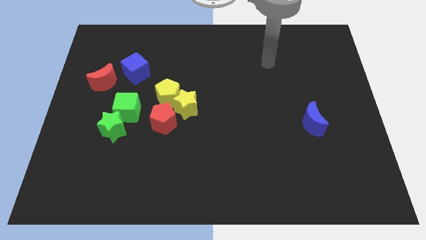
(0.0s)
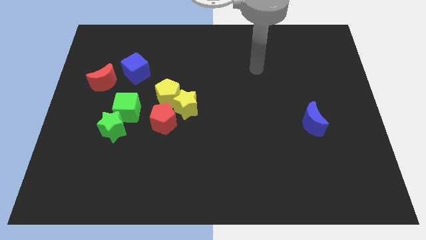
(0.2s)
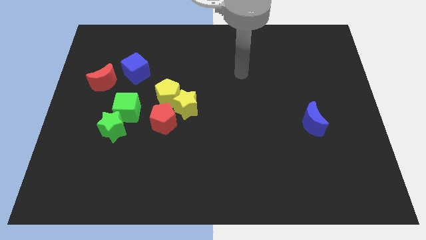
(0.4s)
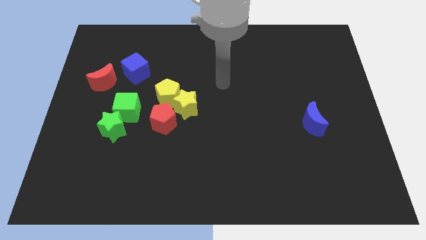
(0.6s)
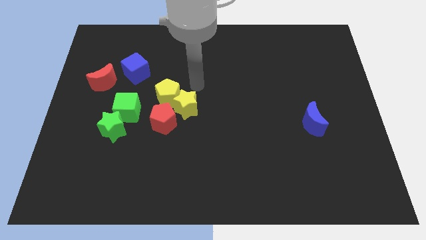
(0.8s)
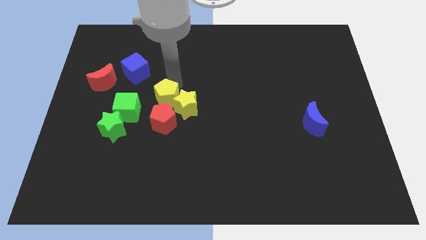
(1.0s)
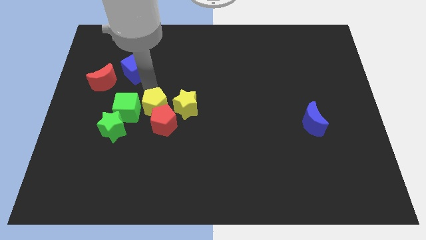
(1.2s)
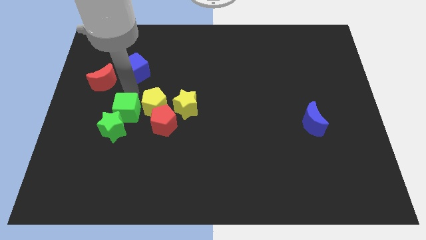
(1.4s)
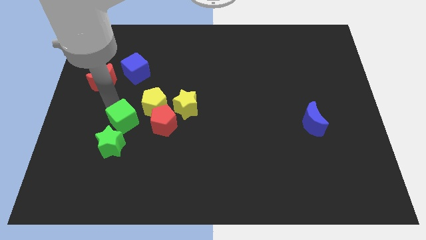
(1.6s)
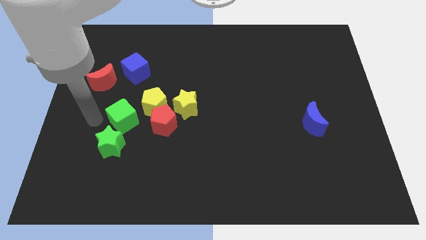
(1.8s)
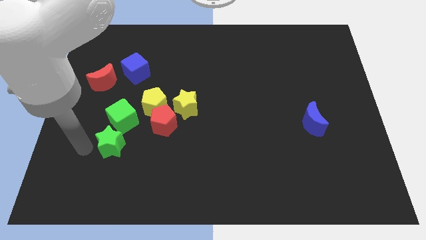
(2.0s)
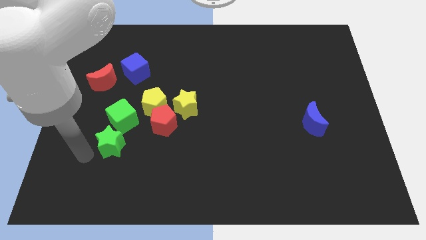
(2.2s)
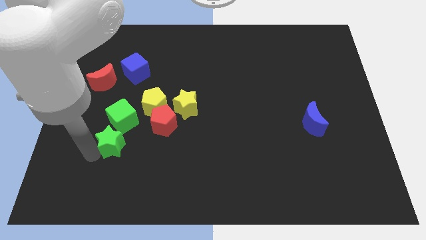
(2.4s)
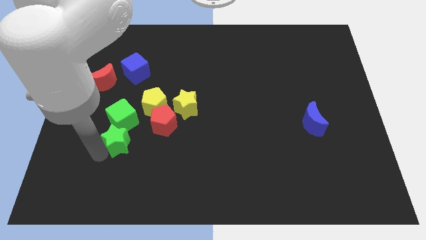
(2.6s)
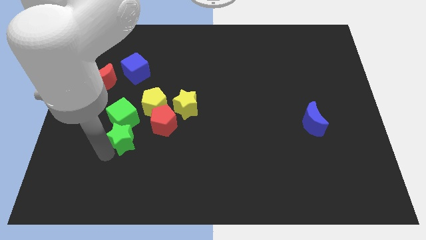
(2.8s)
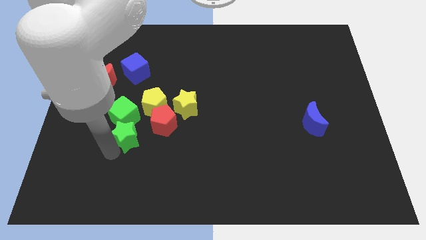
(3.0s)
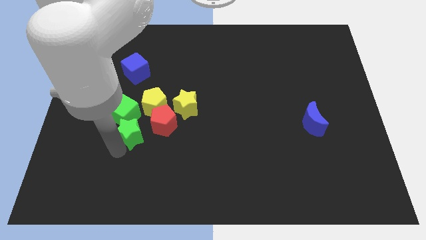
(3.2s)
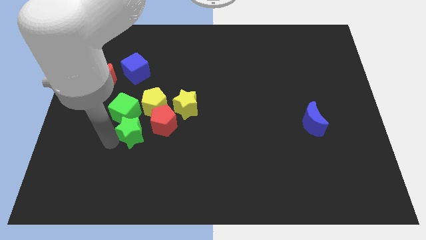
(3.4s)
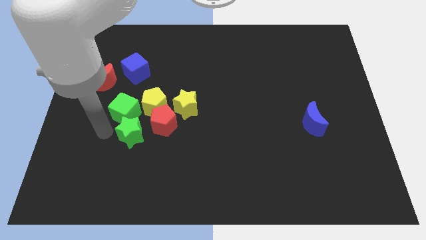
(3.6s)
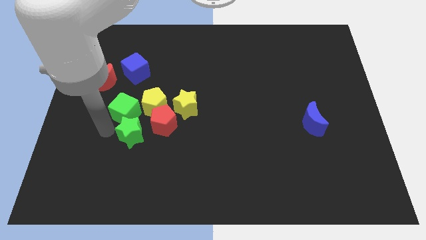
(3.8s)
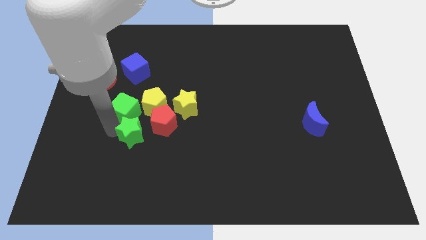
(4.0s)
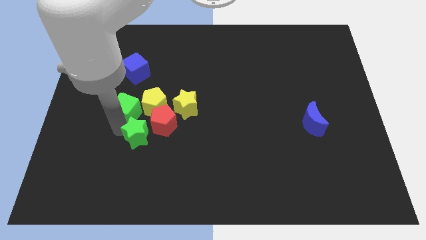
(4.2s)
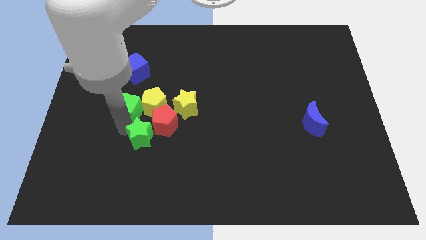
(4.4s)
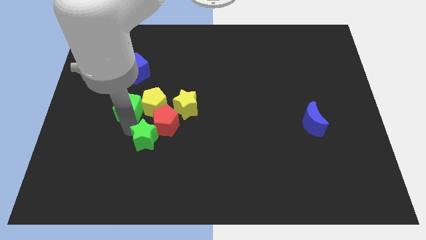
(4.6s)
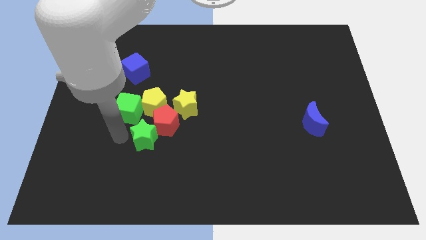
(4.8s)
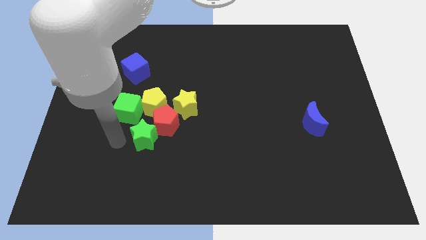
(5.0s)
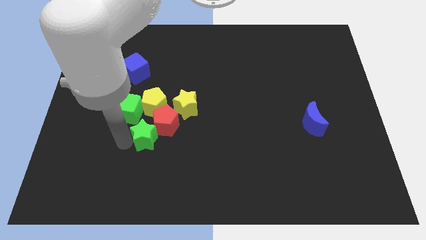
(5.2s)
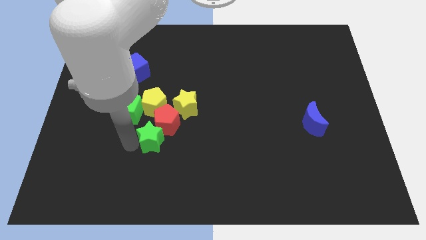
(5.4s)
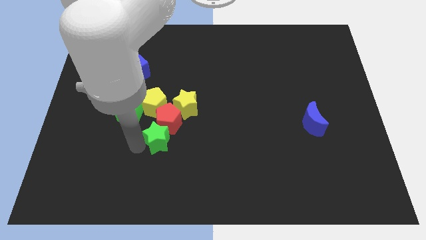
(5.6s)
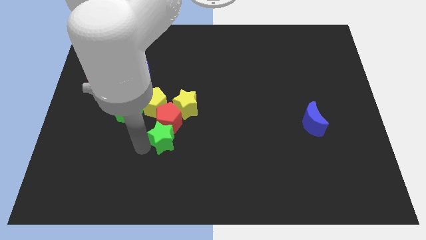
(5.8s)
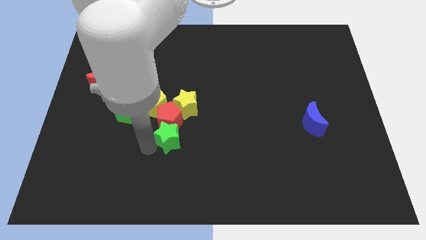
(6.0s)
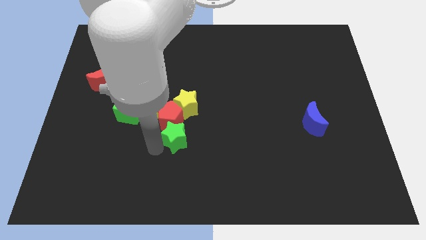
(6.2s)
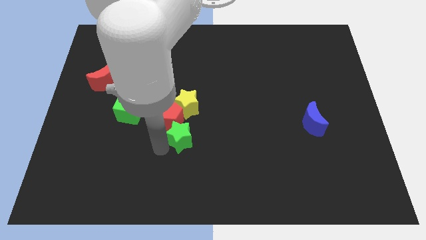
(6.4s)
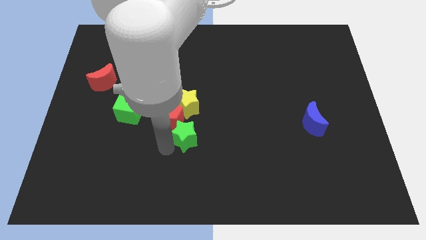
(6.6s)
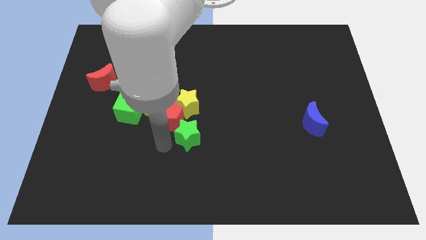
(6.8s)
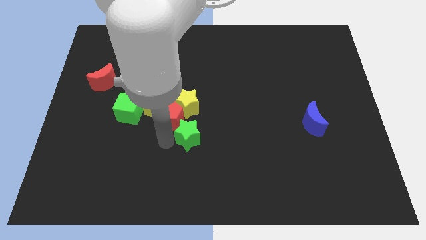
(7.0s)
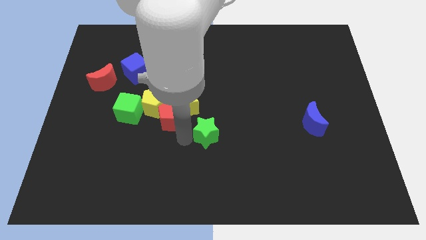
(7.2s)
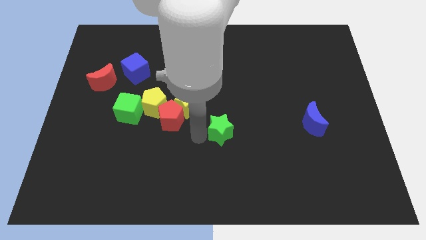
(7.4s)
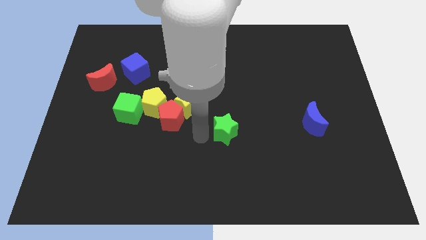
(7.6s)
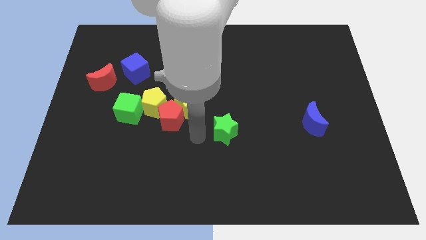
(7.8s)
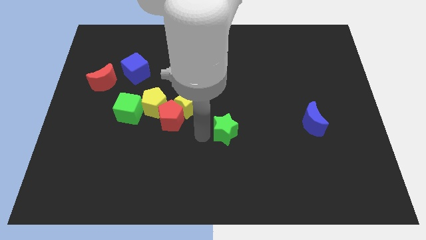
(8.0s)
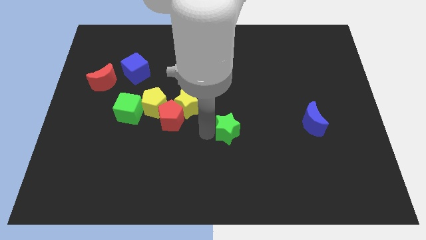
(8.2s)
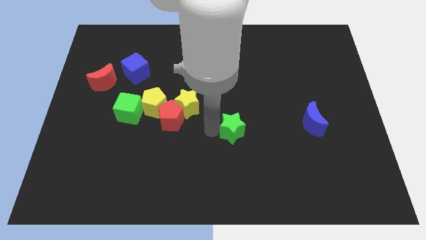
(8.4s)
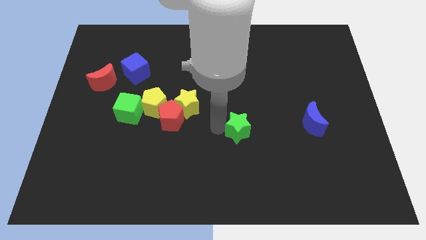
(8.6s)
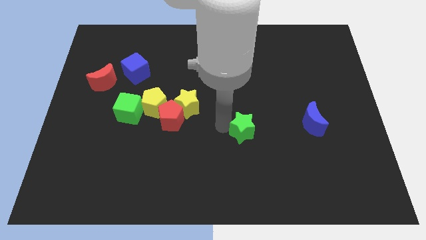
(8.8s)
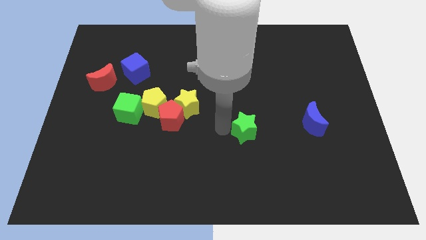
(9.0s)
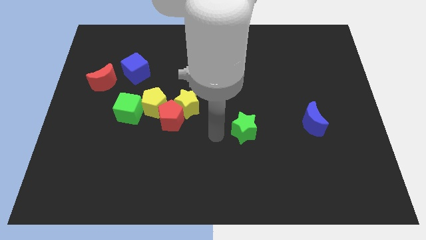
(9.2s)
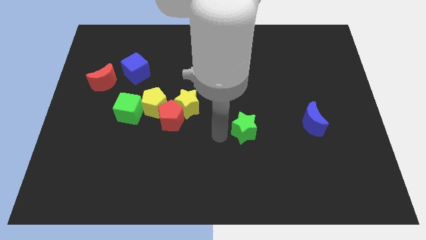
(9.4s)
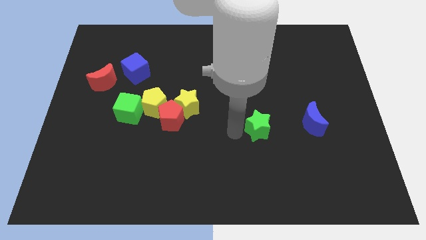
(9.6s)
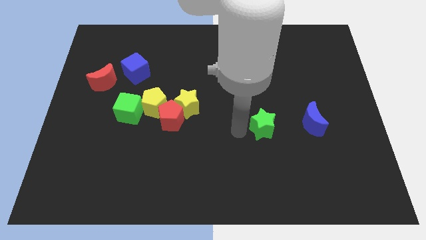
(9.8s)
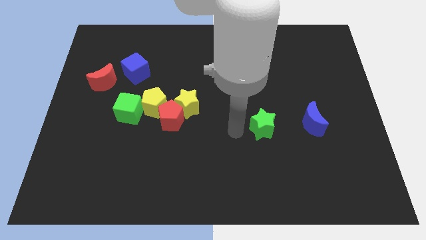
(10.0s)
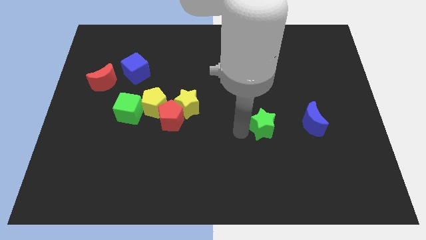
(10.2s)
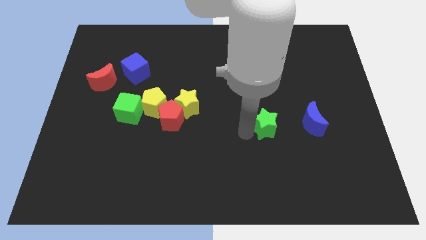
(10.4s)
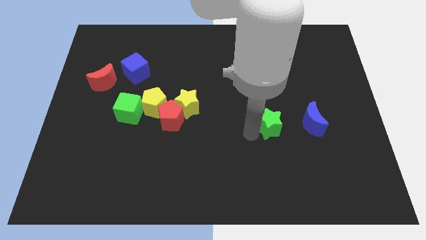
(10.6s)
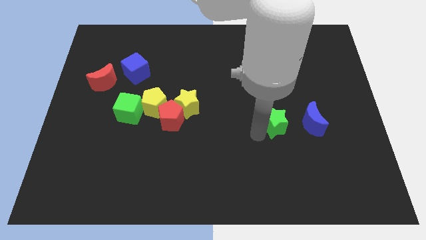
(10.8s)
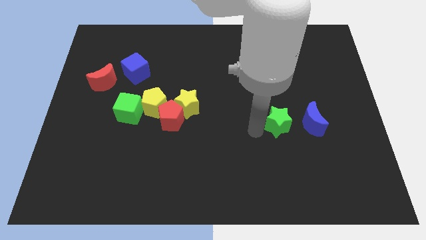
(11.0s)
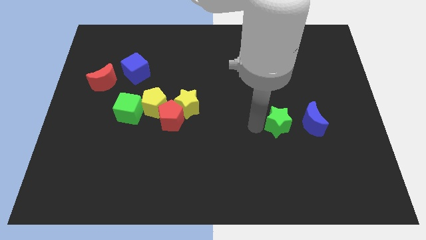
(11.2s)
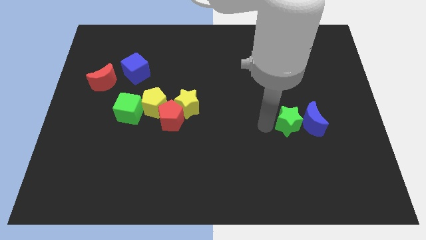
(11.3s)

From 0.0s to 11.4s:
push the green star towards the blue moon
